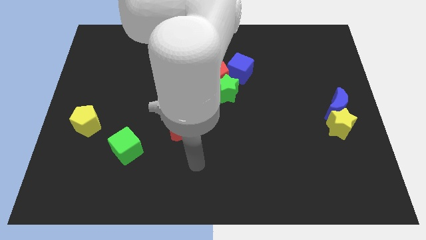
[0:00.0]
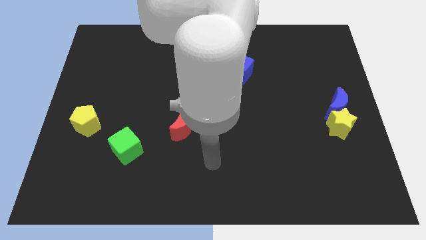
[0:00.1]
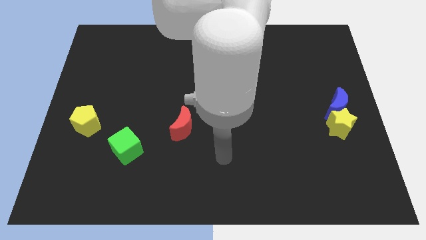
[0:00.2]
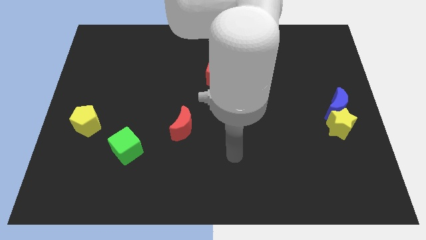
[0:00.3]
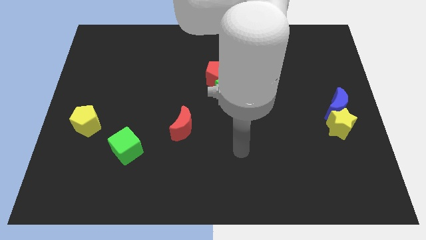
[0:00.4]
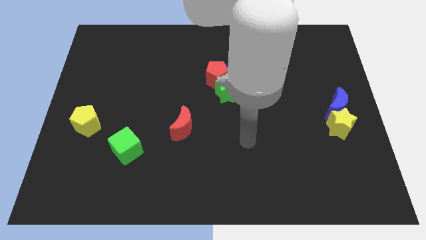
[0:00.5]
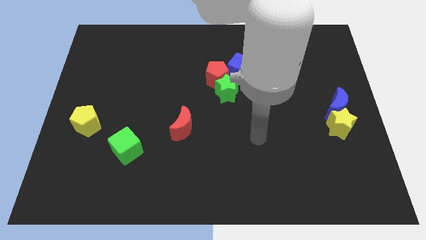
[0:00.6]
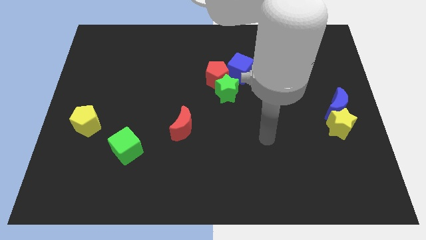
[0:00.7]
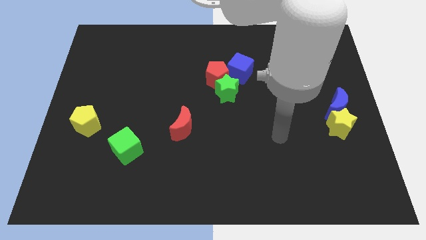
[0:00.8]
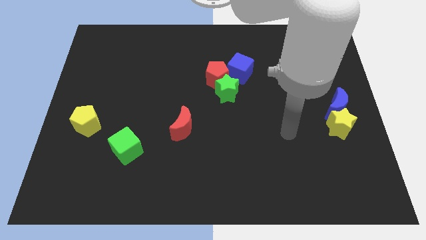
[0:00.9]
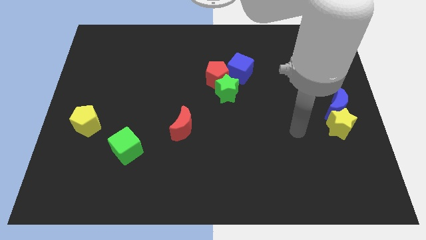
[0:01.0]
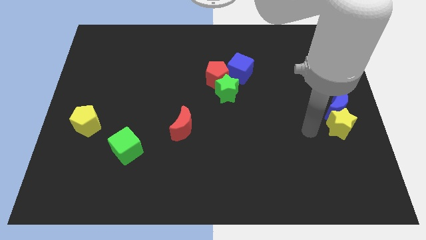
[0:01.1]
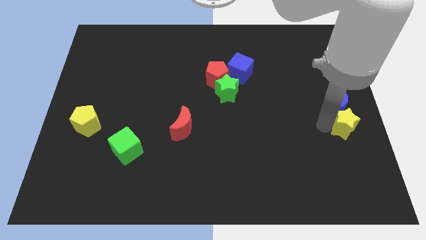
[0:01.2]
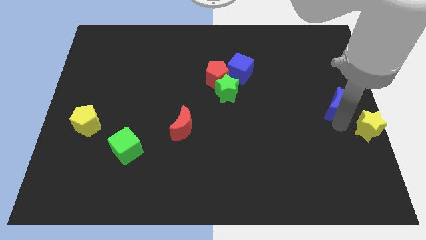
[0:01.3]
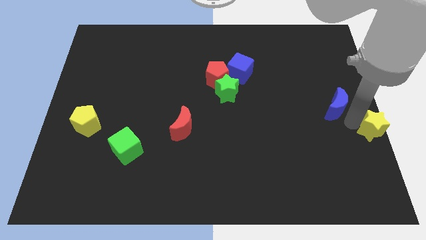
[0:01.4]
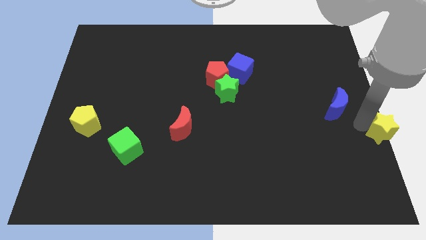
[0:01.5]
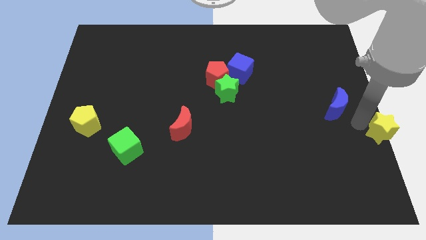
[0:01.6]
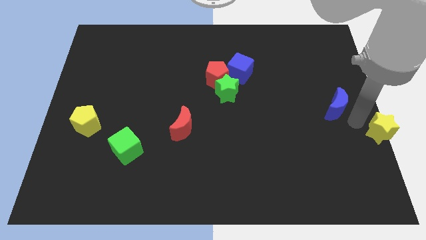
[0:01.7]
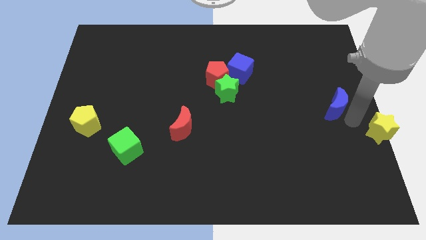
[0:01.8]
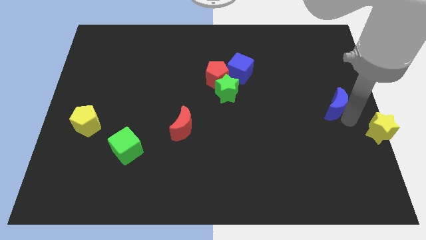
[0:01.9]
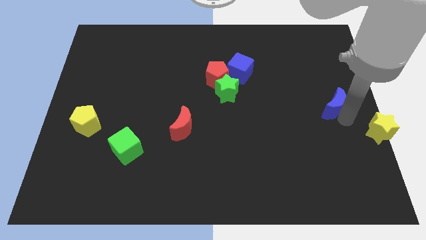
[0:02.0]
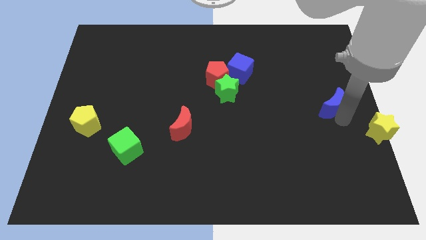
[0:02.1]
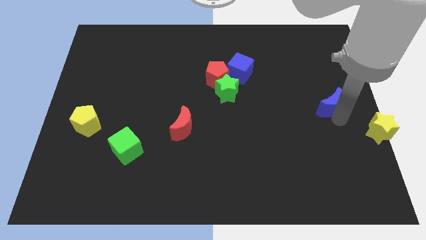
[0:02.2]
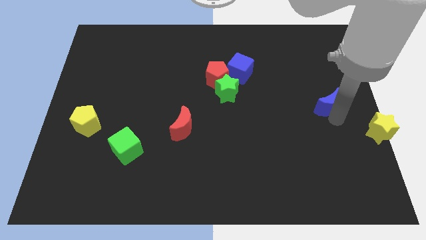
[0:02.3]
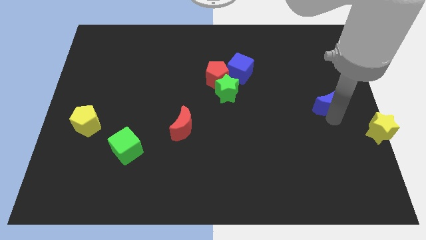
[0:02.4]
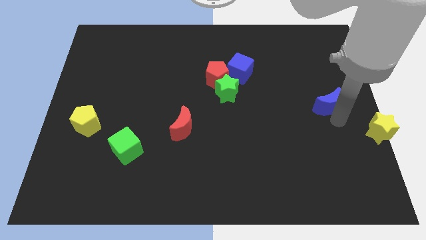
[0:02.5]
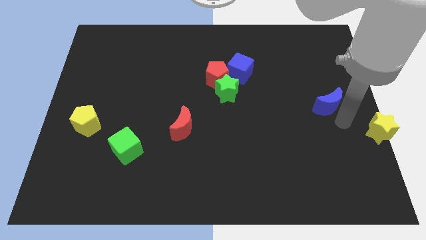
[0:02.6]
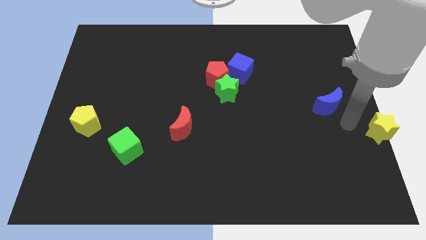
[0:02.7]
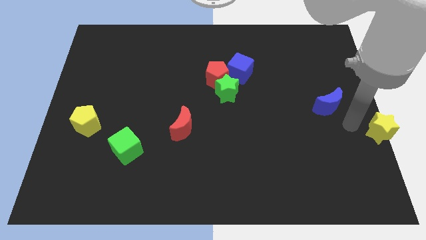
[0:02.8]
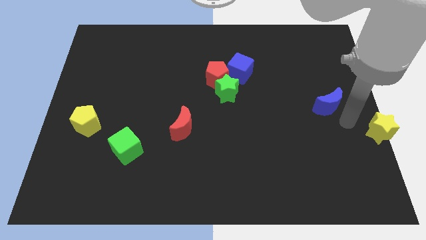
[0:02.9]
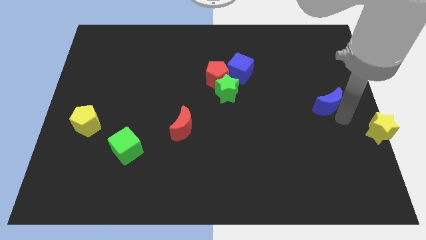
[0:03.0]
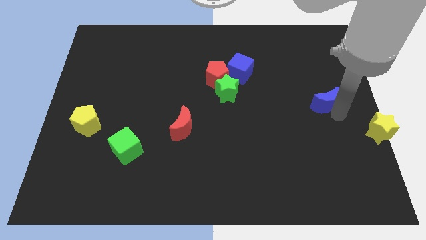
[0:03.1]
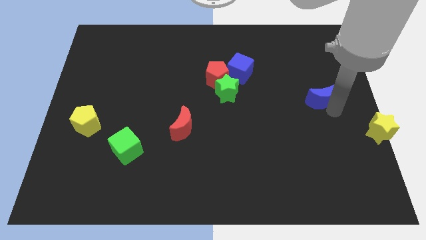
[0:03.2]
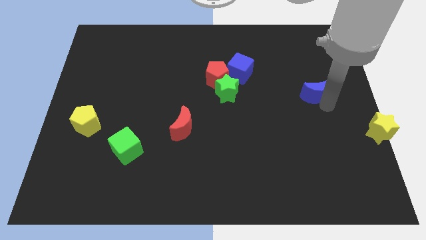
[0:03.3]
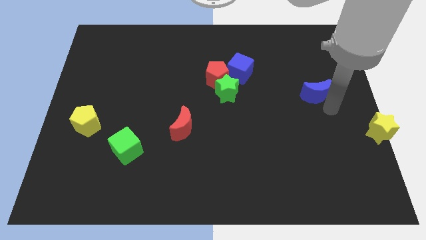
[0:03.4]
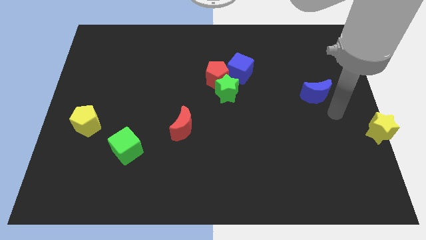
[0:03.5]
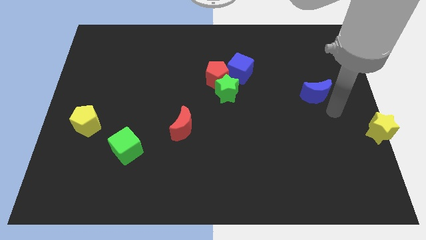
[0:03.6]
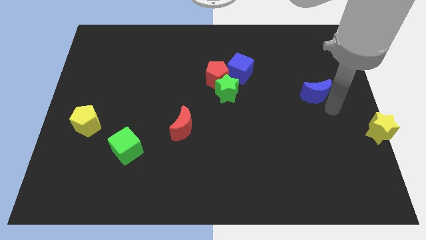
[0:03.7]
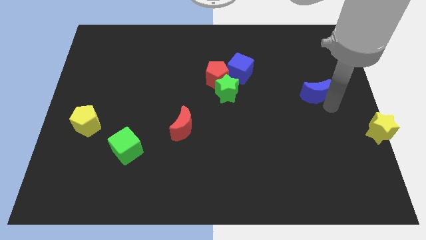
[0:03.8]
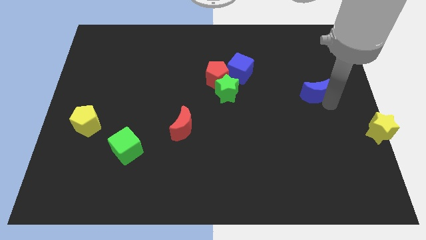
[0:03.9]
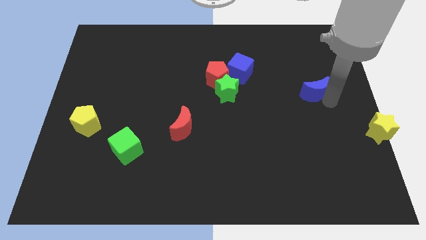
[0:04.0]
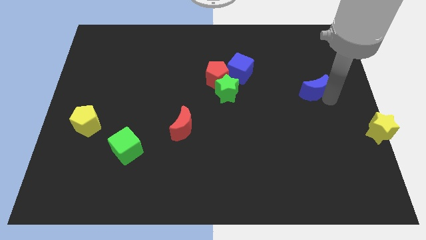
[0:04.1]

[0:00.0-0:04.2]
slide the blue moon a little upwards and left

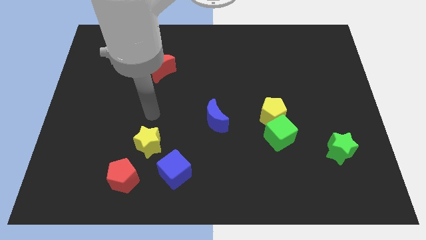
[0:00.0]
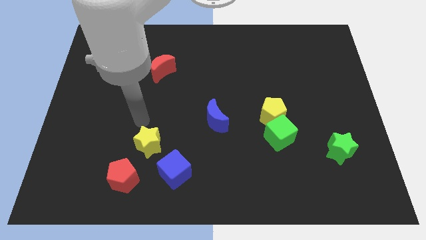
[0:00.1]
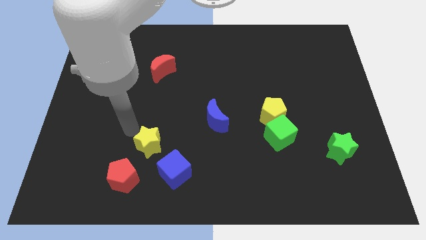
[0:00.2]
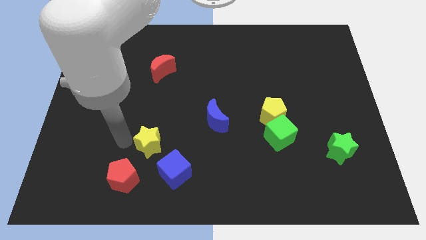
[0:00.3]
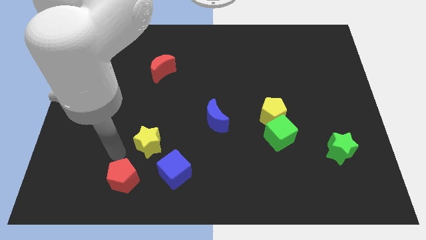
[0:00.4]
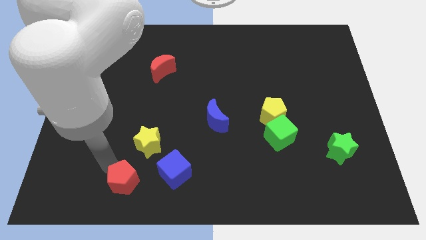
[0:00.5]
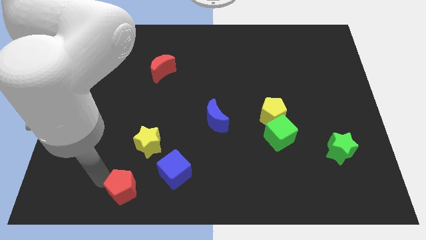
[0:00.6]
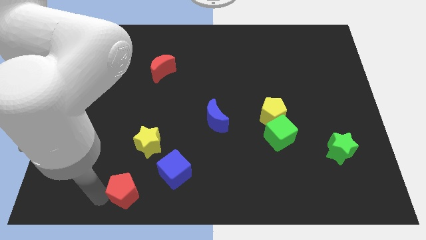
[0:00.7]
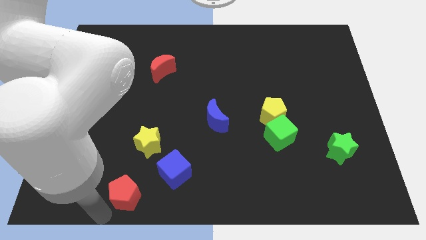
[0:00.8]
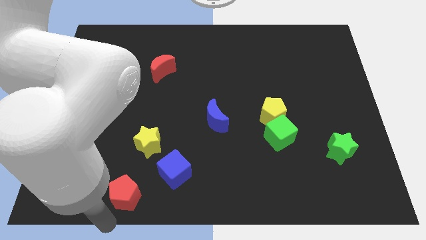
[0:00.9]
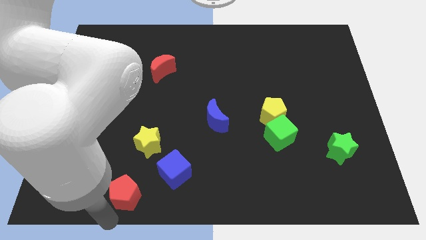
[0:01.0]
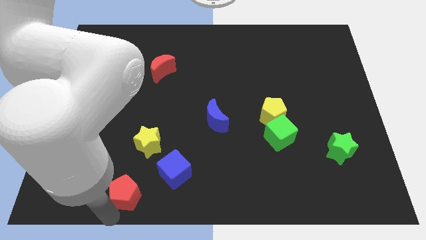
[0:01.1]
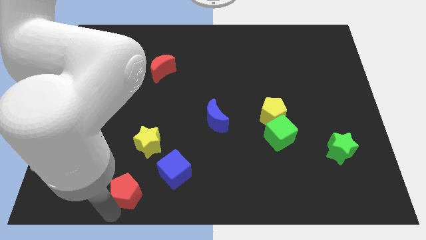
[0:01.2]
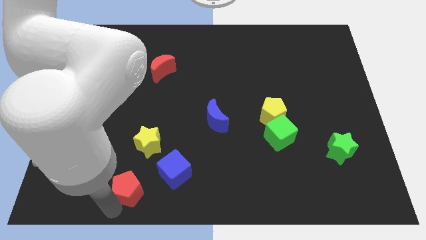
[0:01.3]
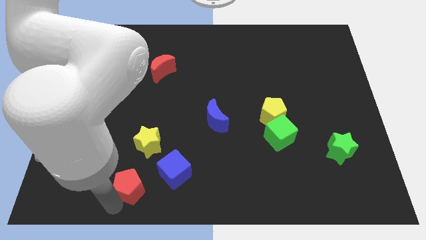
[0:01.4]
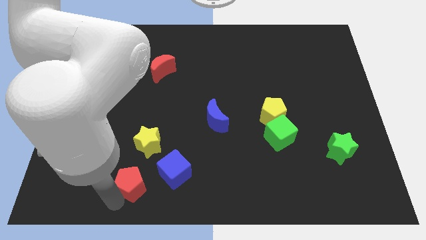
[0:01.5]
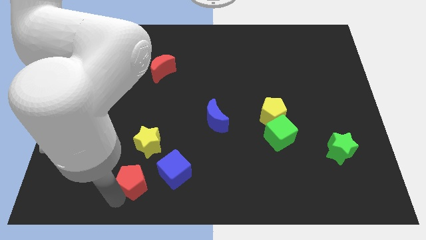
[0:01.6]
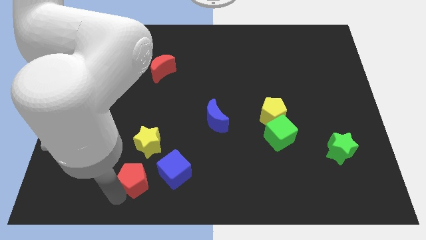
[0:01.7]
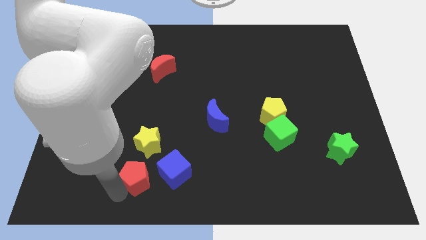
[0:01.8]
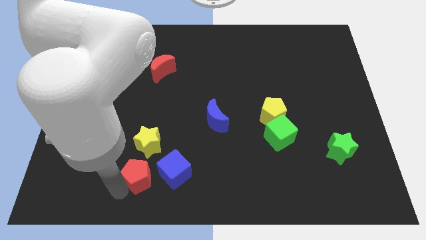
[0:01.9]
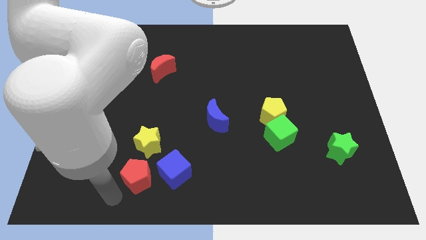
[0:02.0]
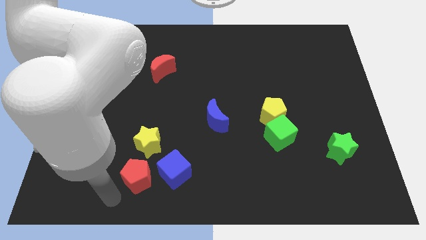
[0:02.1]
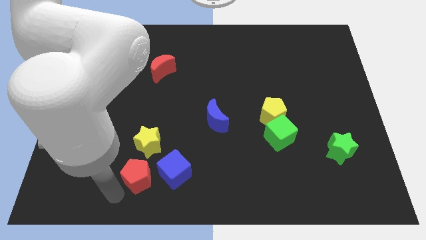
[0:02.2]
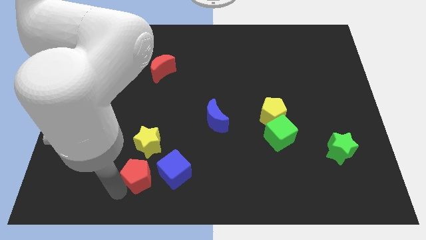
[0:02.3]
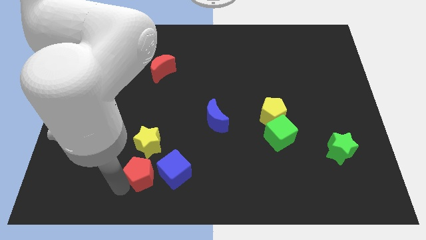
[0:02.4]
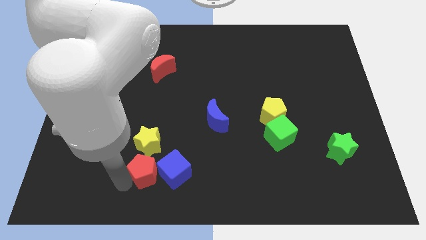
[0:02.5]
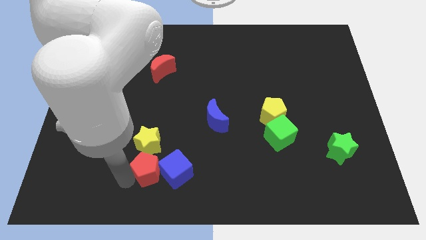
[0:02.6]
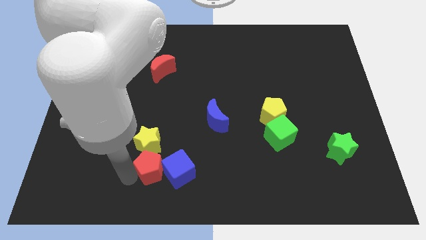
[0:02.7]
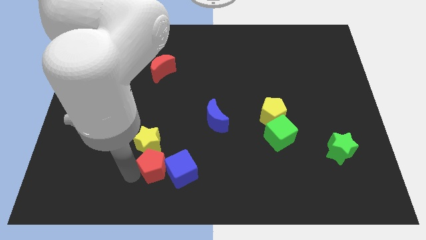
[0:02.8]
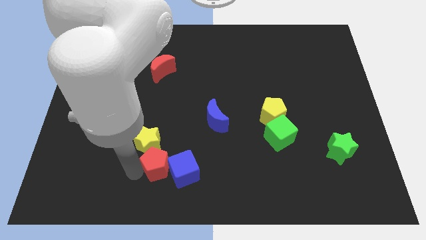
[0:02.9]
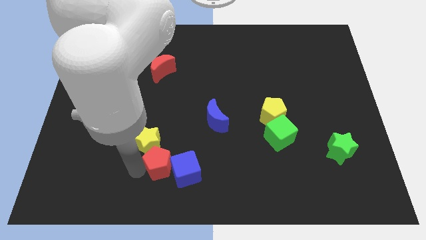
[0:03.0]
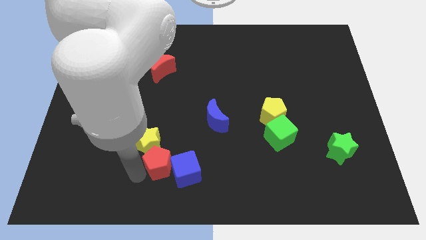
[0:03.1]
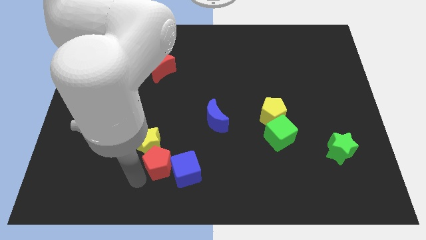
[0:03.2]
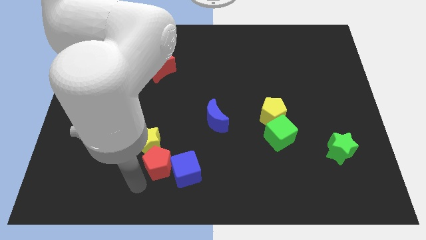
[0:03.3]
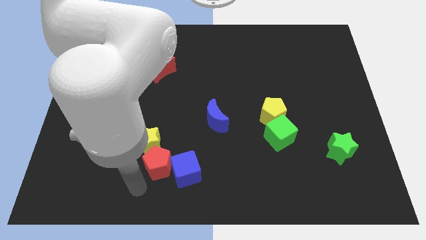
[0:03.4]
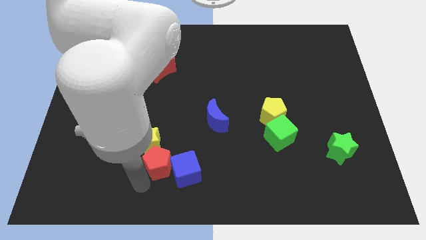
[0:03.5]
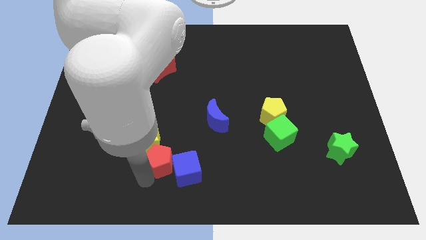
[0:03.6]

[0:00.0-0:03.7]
slide the red pentagon a little up and to the right diagonally

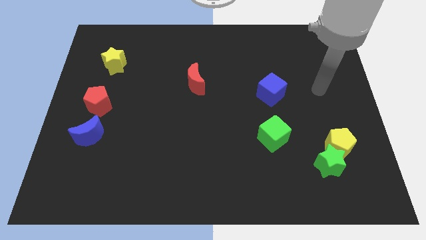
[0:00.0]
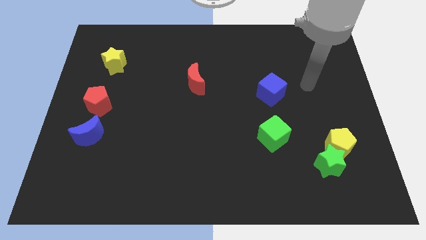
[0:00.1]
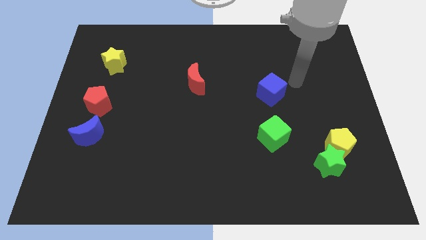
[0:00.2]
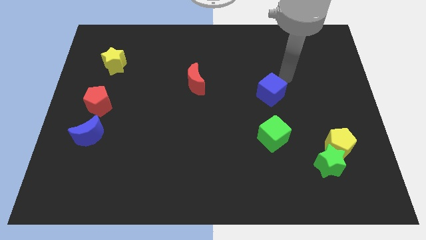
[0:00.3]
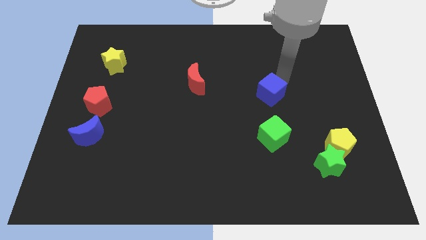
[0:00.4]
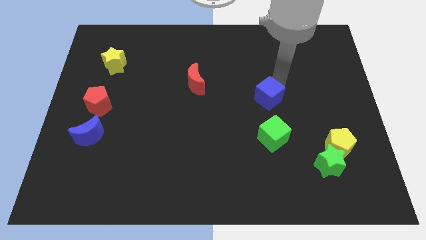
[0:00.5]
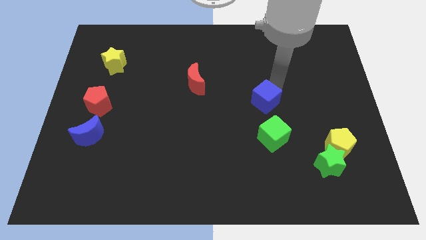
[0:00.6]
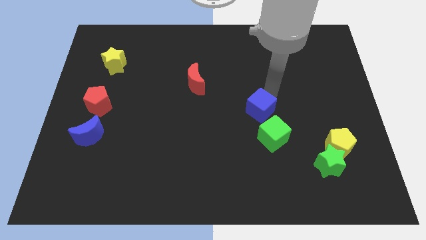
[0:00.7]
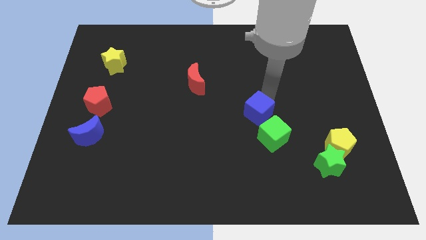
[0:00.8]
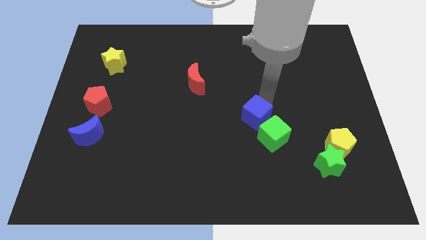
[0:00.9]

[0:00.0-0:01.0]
slightly move the blue cube diagonally down and left
